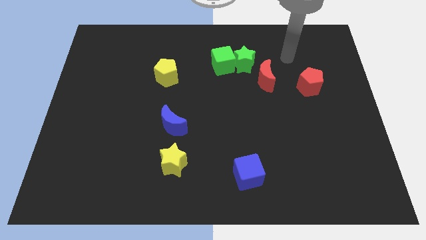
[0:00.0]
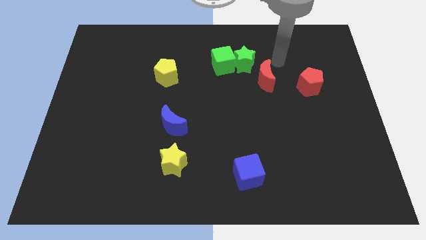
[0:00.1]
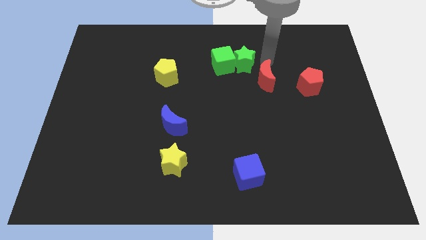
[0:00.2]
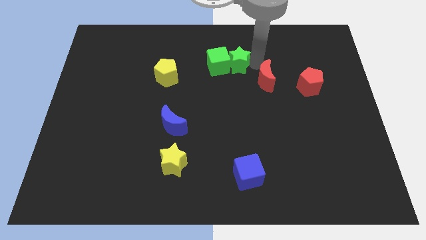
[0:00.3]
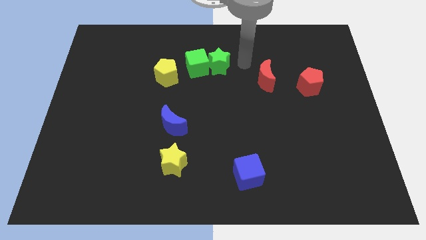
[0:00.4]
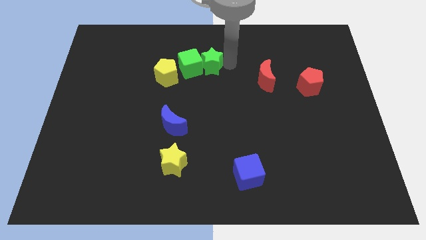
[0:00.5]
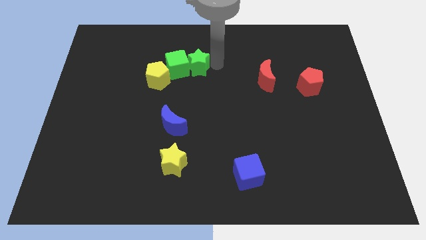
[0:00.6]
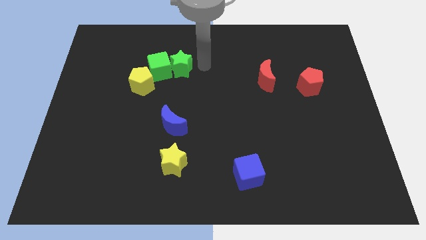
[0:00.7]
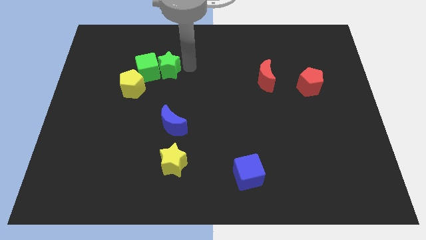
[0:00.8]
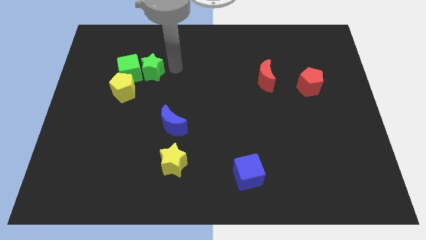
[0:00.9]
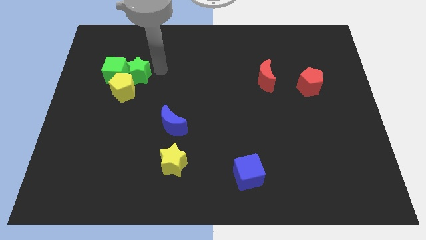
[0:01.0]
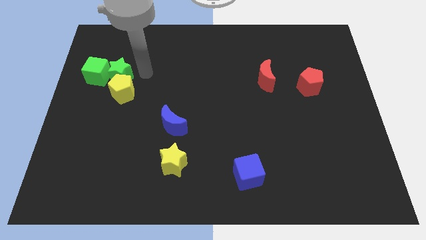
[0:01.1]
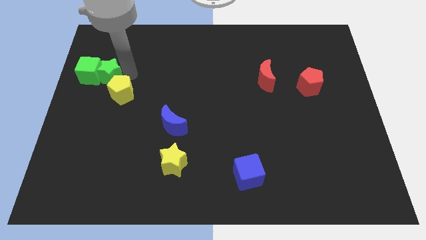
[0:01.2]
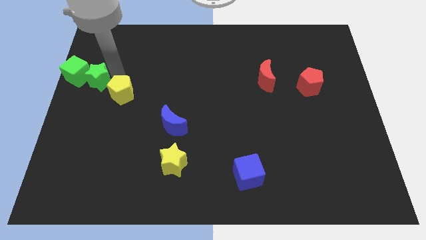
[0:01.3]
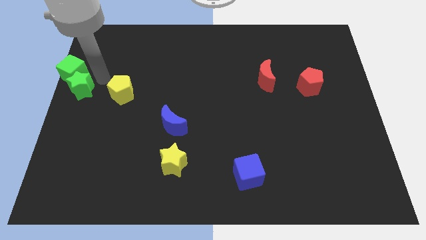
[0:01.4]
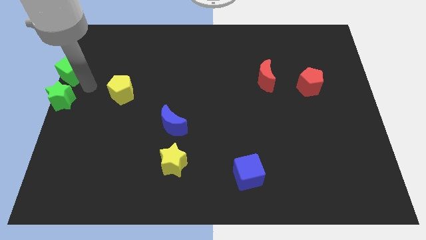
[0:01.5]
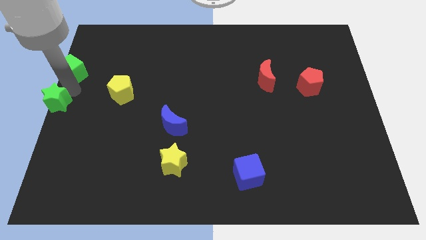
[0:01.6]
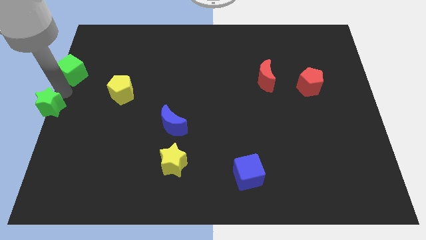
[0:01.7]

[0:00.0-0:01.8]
move the green cube away from the green star

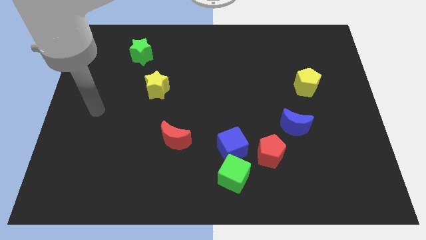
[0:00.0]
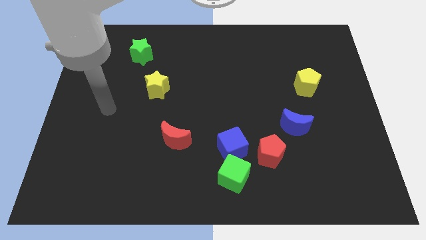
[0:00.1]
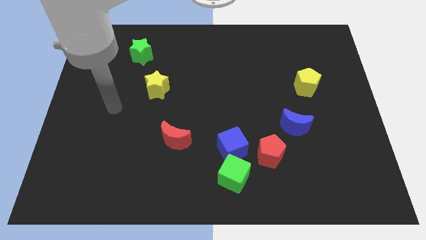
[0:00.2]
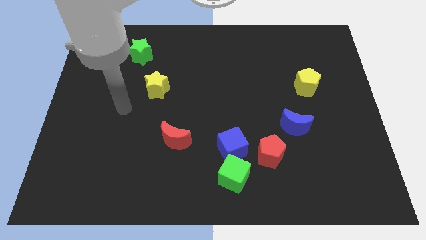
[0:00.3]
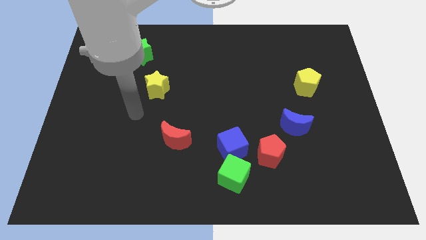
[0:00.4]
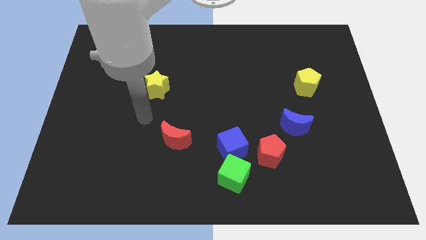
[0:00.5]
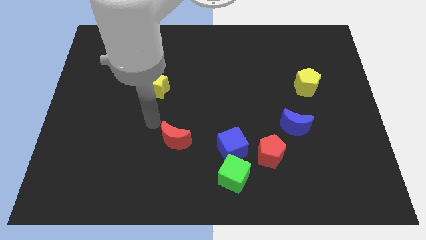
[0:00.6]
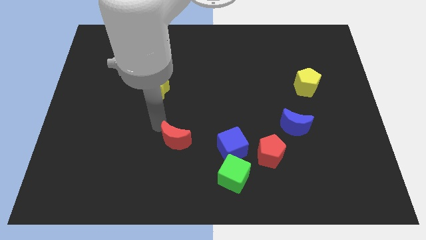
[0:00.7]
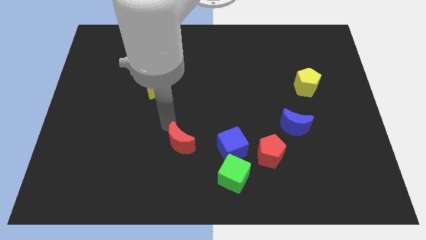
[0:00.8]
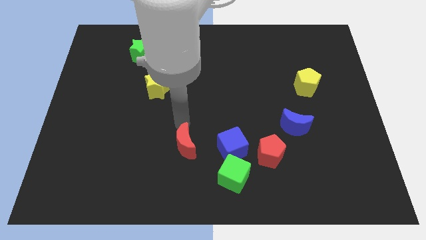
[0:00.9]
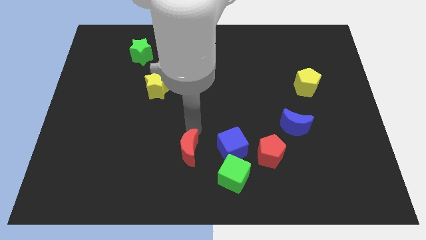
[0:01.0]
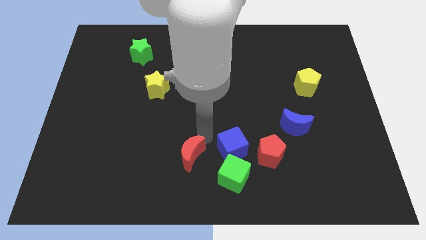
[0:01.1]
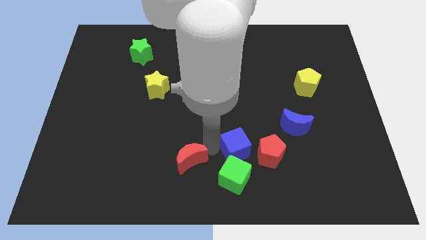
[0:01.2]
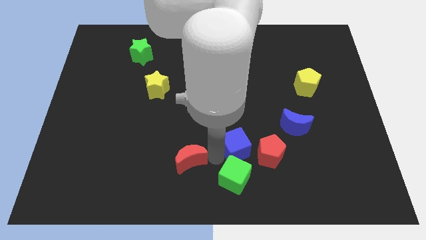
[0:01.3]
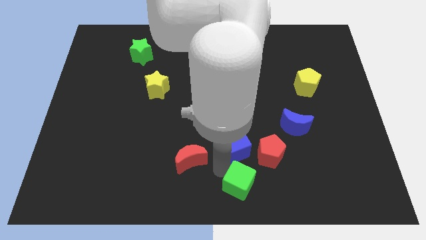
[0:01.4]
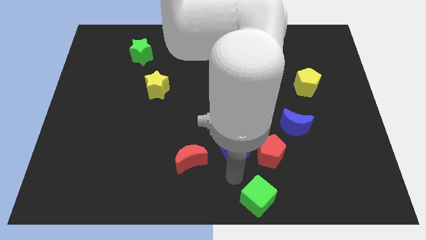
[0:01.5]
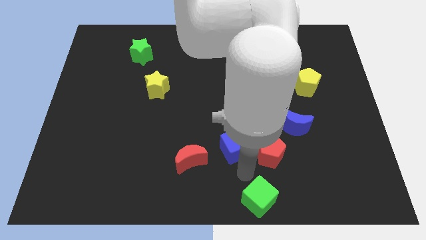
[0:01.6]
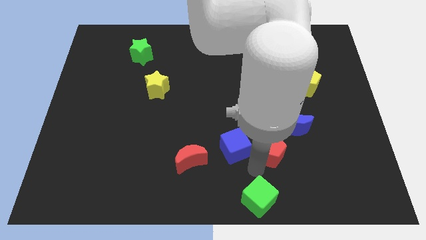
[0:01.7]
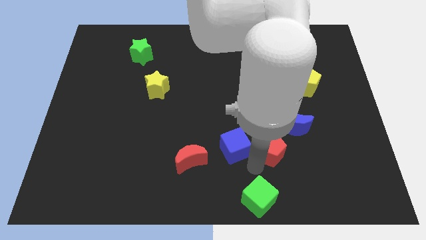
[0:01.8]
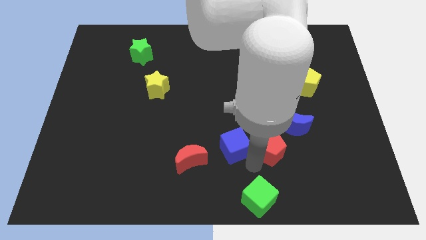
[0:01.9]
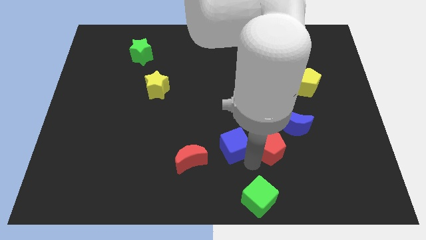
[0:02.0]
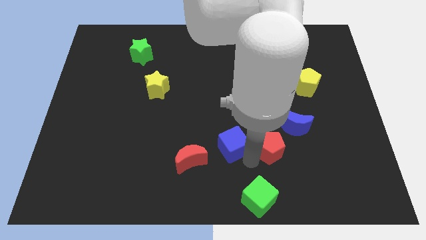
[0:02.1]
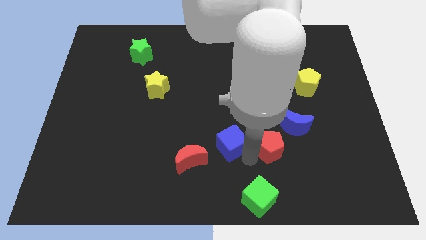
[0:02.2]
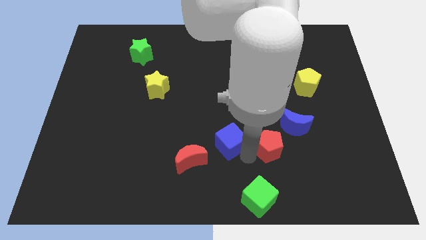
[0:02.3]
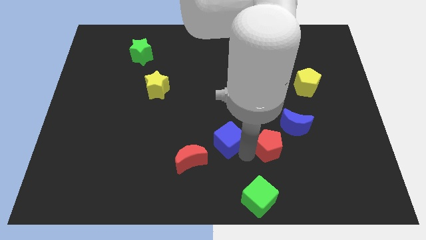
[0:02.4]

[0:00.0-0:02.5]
separate the blue cube from the green cube and red pentagon

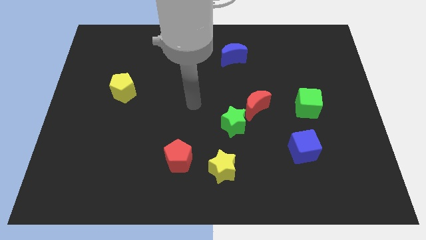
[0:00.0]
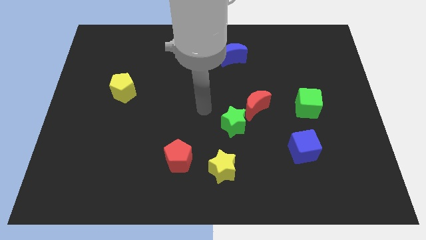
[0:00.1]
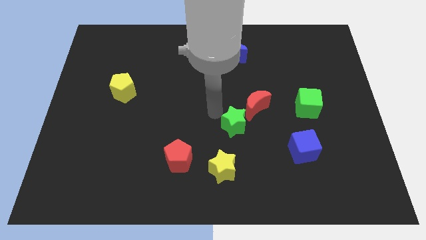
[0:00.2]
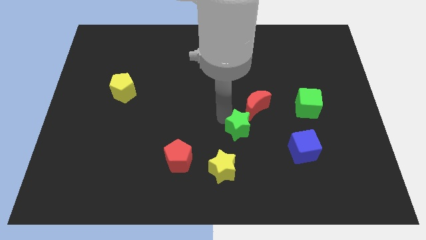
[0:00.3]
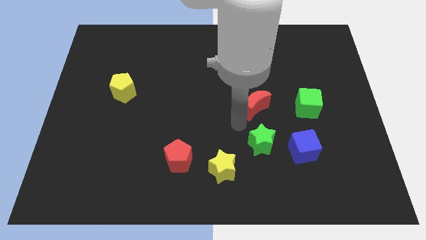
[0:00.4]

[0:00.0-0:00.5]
move the red moon away from the green star

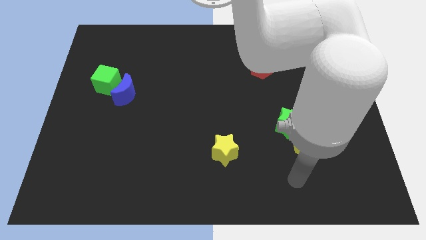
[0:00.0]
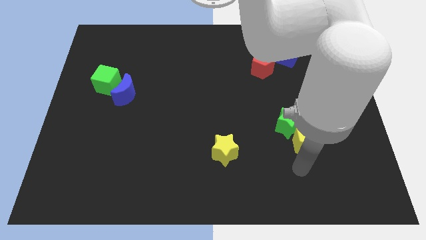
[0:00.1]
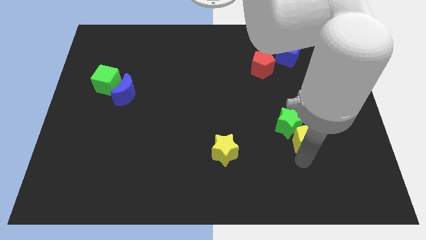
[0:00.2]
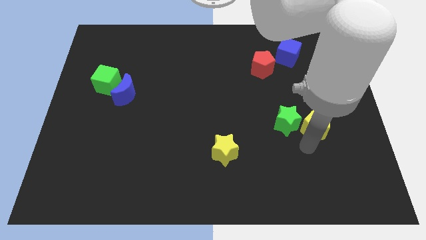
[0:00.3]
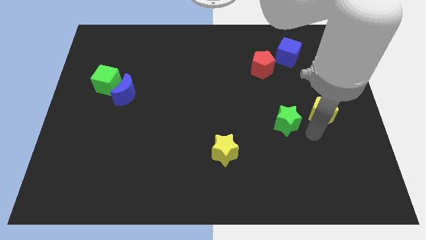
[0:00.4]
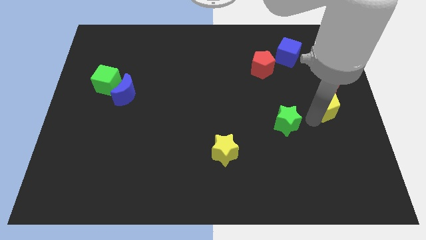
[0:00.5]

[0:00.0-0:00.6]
move the green star away from the yellow pentagon

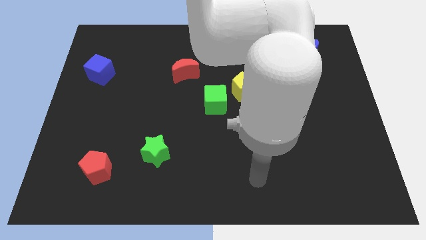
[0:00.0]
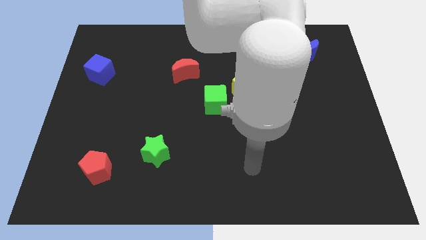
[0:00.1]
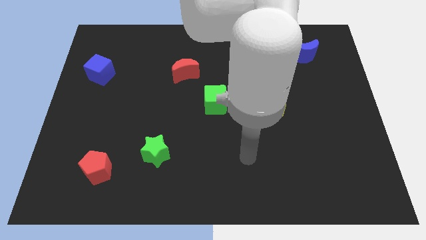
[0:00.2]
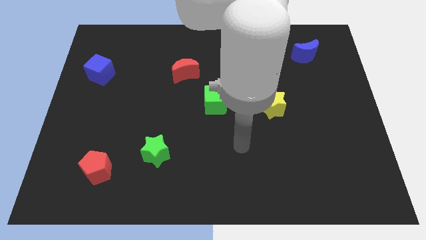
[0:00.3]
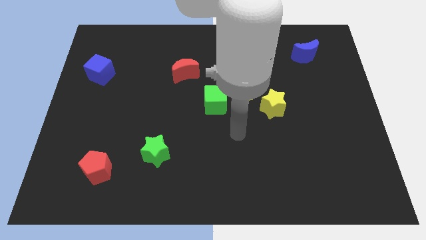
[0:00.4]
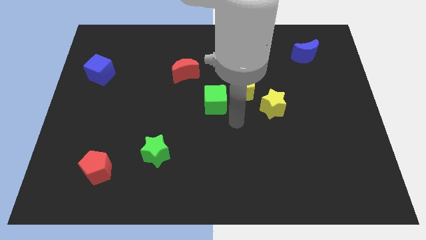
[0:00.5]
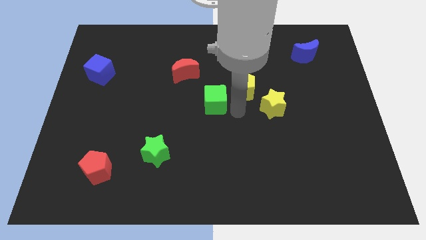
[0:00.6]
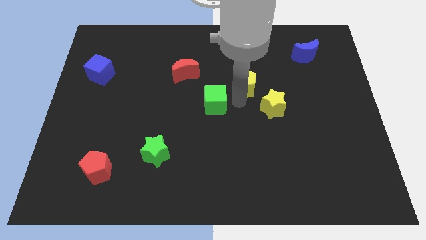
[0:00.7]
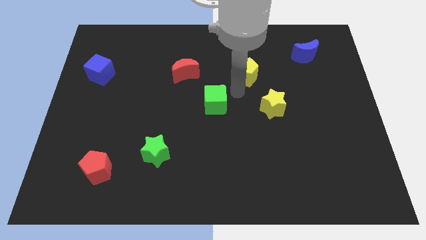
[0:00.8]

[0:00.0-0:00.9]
separate the green cube from the yellow pentagon

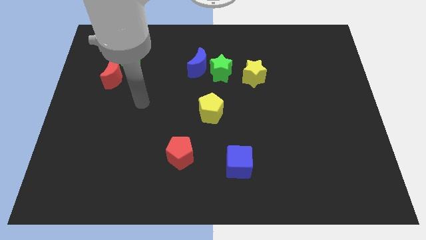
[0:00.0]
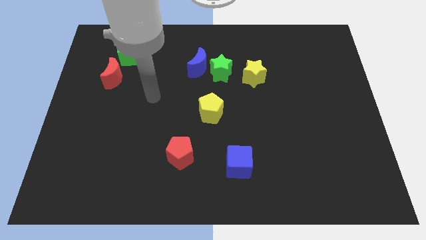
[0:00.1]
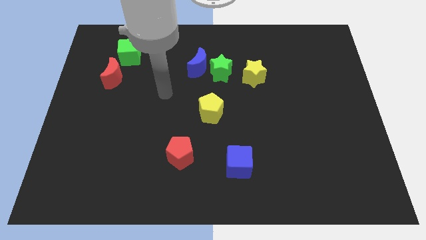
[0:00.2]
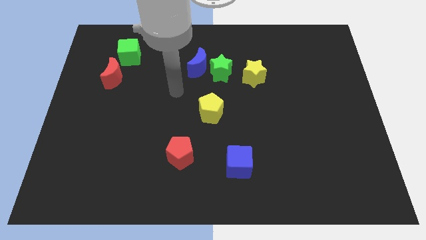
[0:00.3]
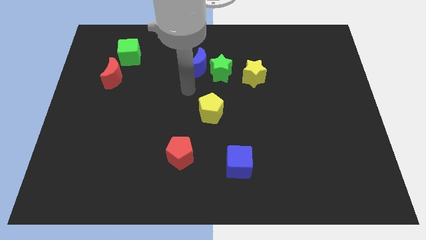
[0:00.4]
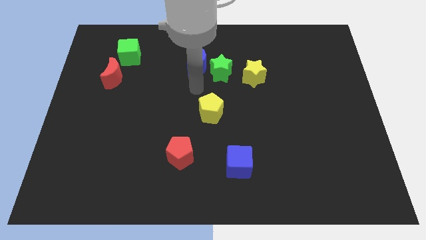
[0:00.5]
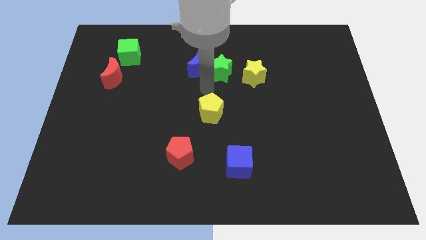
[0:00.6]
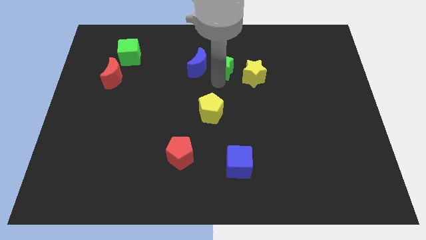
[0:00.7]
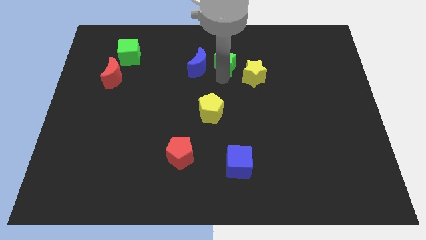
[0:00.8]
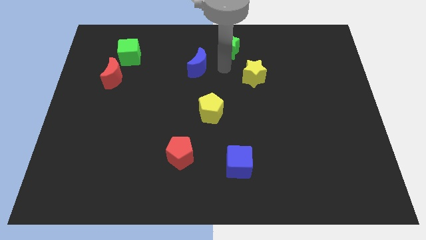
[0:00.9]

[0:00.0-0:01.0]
pull the blue moon apart from the green star

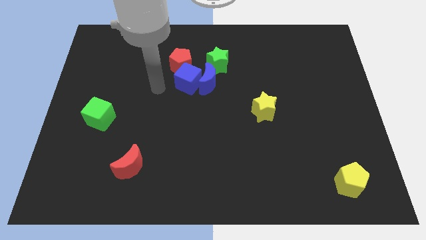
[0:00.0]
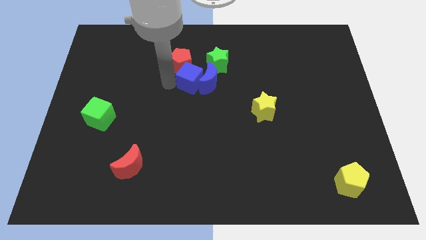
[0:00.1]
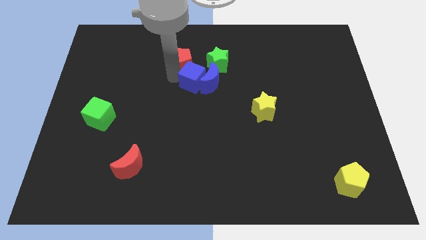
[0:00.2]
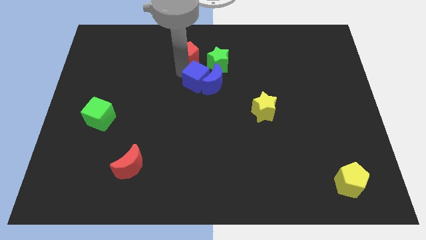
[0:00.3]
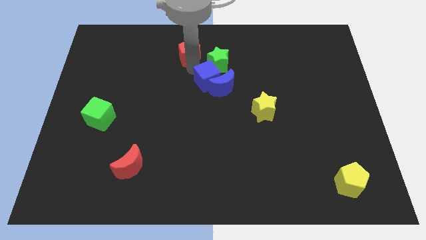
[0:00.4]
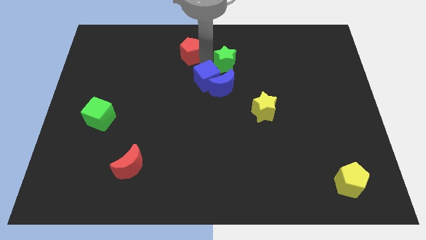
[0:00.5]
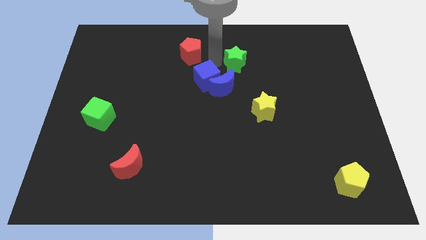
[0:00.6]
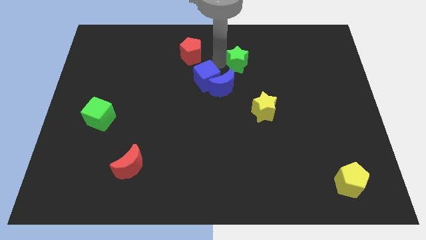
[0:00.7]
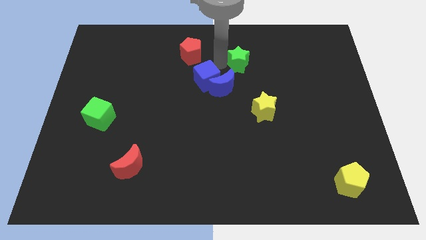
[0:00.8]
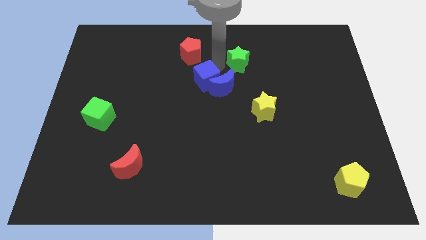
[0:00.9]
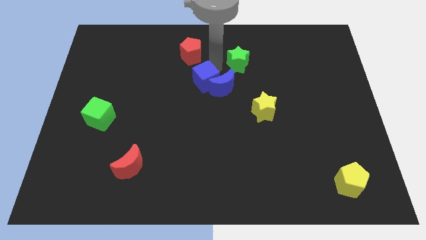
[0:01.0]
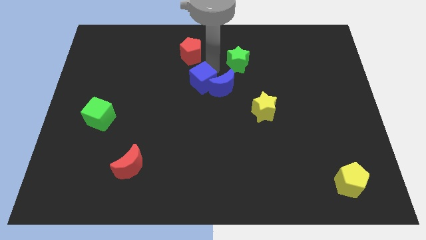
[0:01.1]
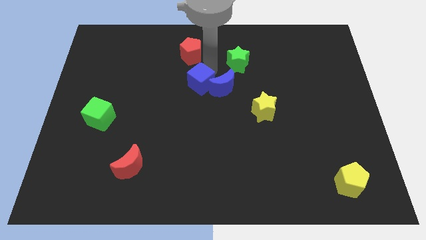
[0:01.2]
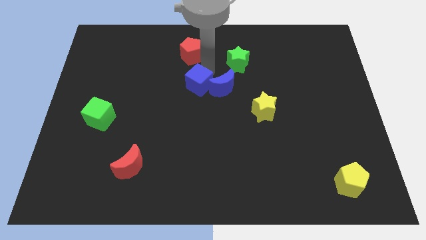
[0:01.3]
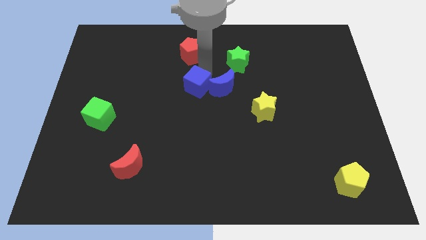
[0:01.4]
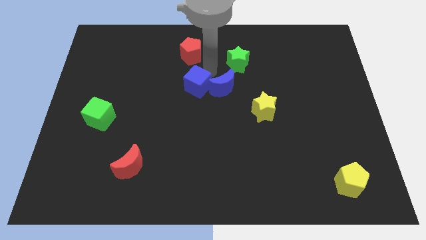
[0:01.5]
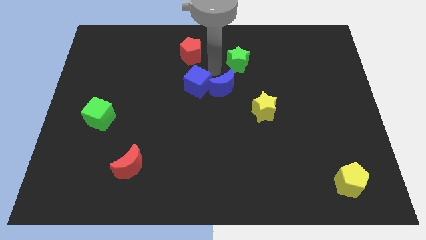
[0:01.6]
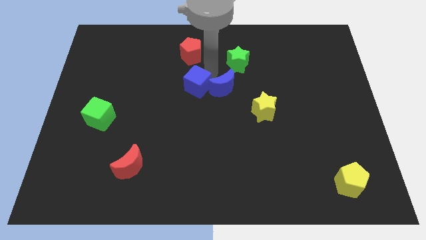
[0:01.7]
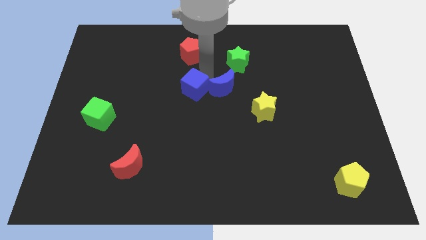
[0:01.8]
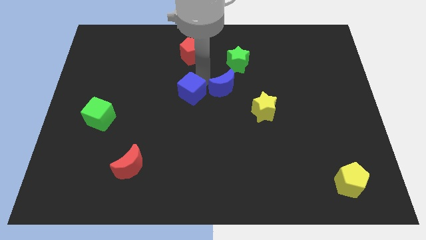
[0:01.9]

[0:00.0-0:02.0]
separate the blue cube from the group
